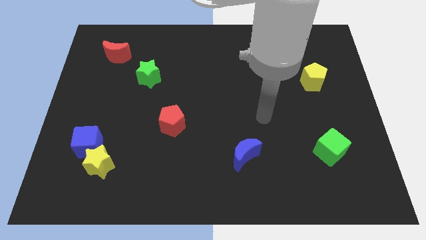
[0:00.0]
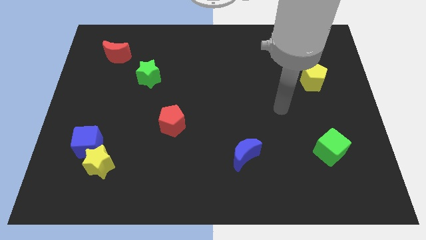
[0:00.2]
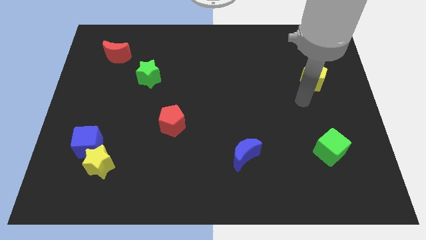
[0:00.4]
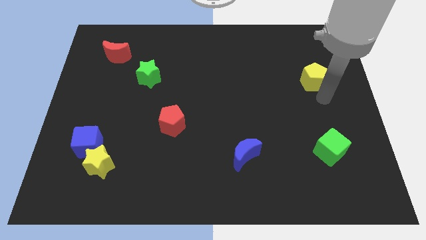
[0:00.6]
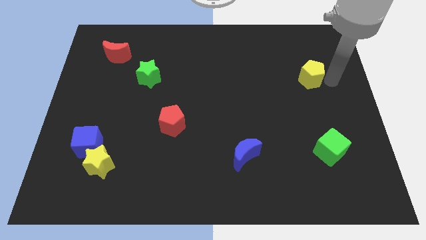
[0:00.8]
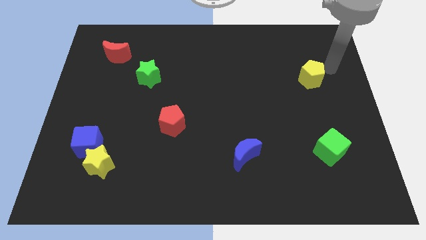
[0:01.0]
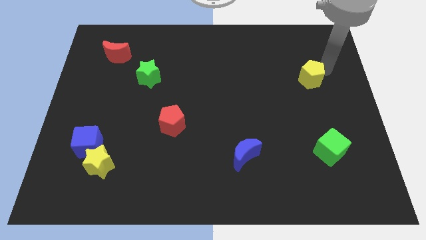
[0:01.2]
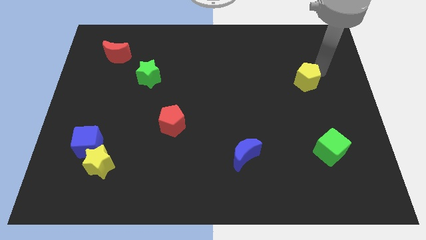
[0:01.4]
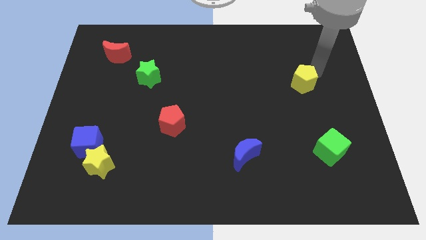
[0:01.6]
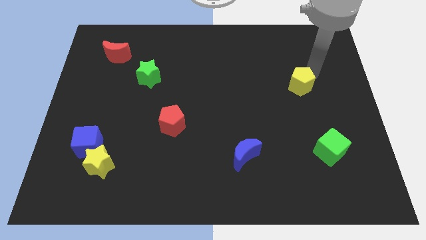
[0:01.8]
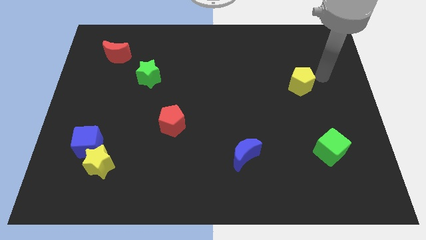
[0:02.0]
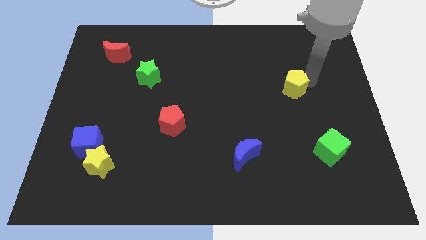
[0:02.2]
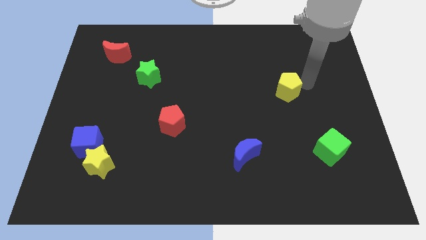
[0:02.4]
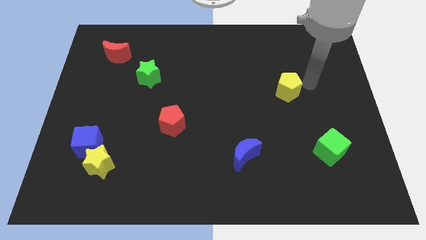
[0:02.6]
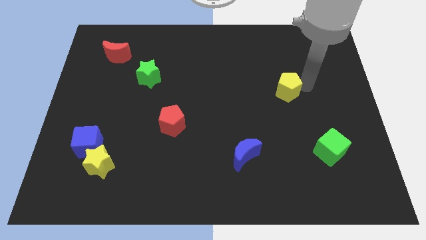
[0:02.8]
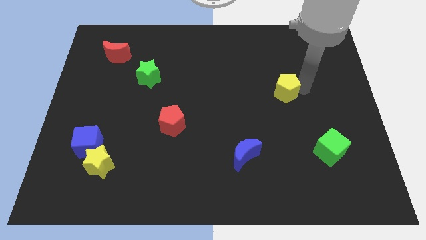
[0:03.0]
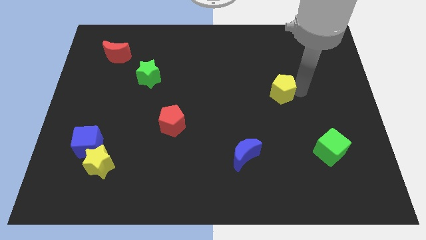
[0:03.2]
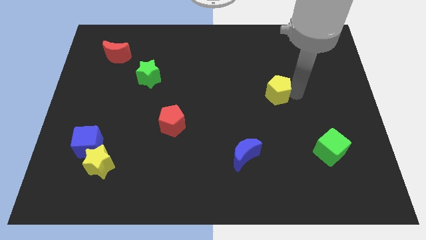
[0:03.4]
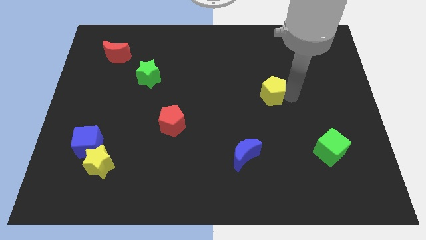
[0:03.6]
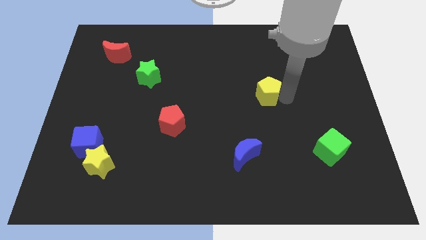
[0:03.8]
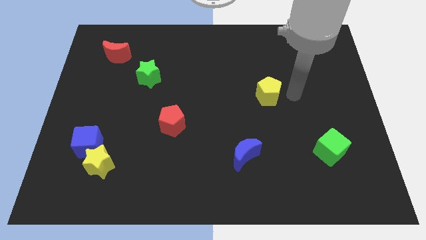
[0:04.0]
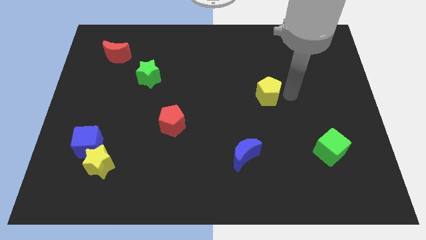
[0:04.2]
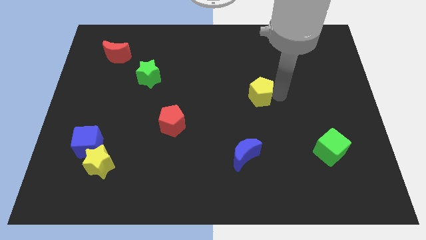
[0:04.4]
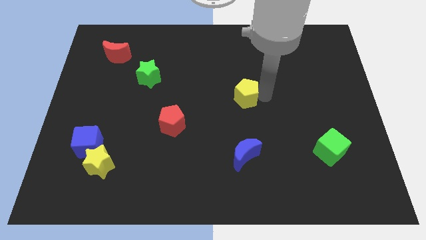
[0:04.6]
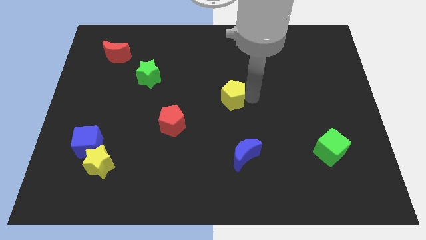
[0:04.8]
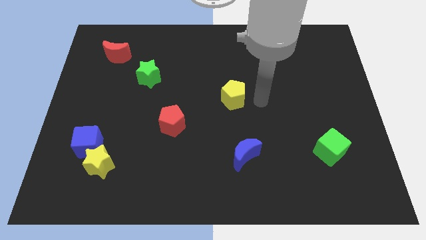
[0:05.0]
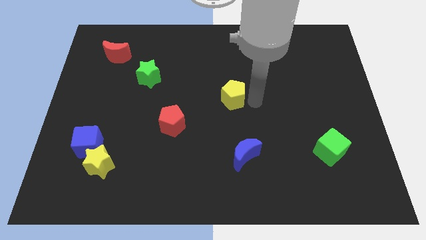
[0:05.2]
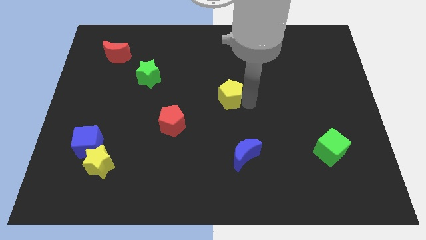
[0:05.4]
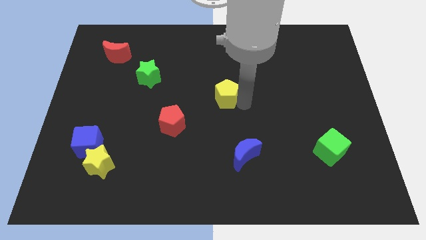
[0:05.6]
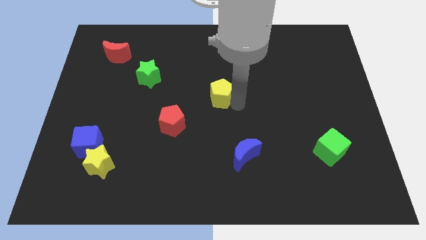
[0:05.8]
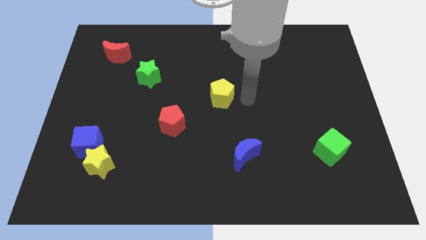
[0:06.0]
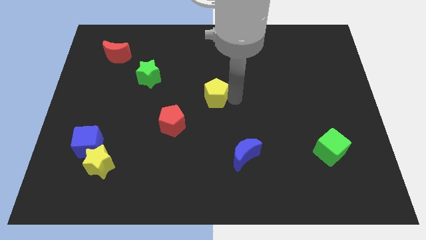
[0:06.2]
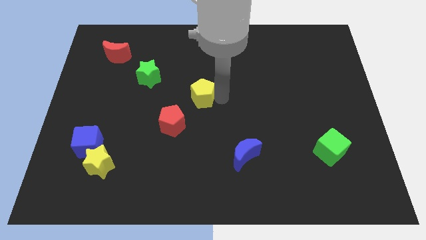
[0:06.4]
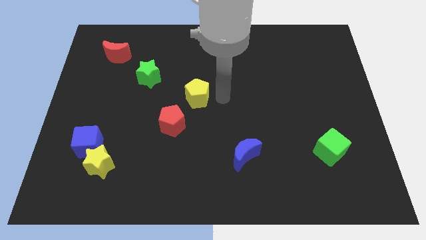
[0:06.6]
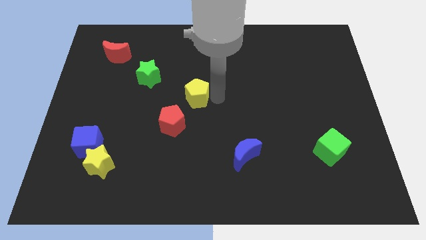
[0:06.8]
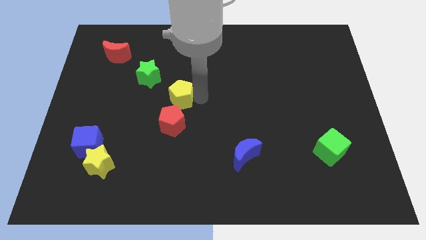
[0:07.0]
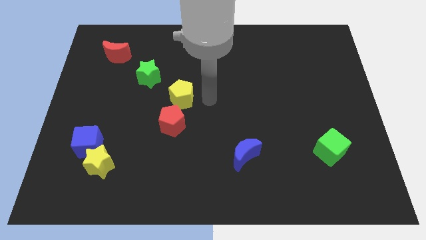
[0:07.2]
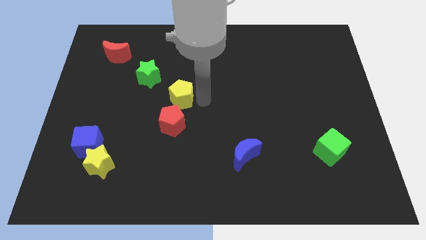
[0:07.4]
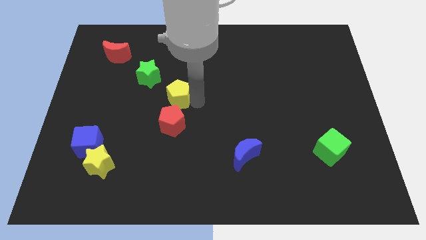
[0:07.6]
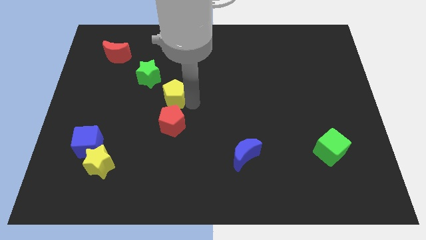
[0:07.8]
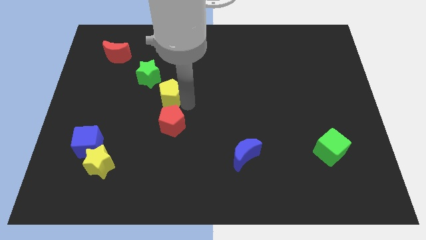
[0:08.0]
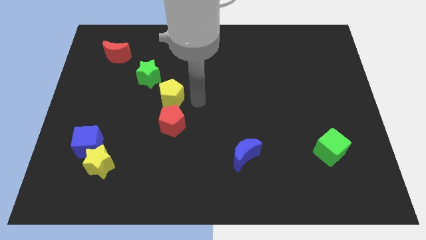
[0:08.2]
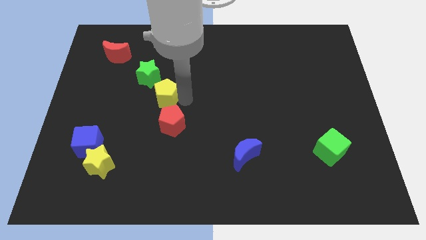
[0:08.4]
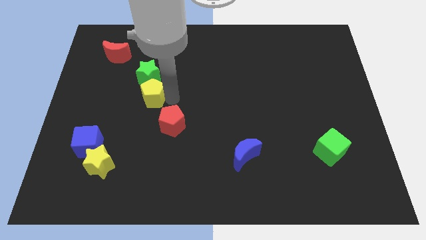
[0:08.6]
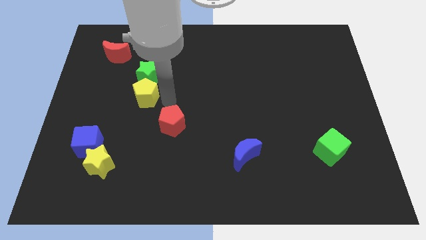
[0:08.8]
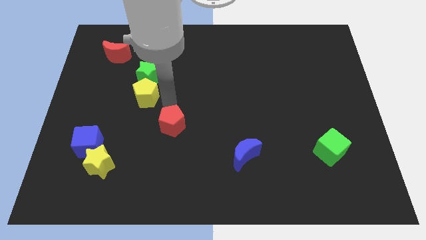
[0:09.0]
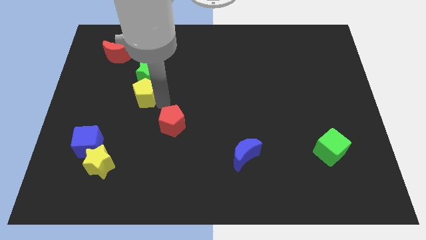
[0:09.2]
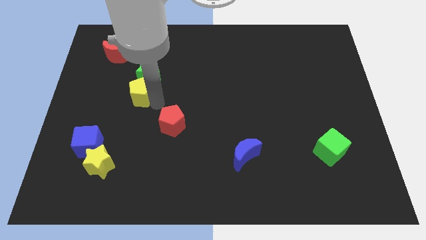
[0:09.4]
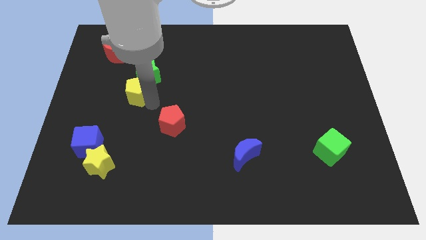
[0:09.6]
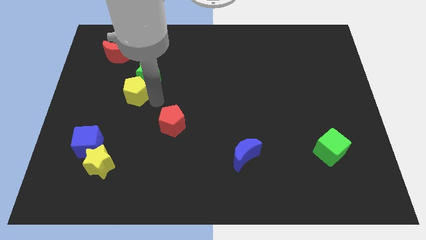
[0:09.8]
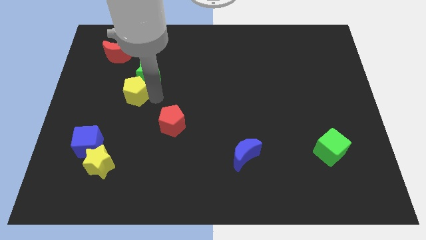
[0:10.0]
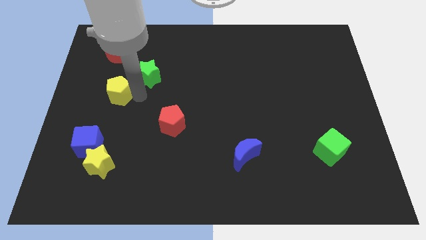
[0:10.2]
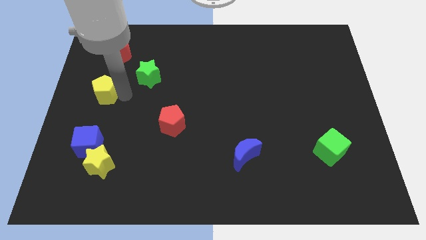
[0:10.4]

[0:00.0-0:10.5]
put the yellow pentagon to the left side of the board

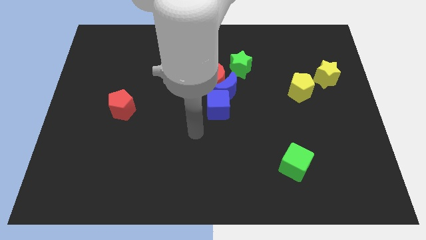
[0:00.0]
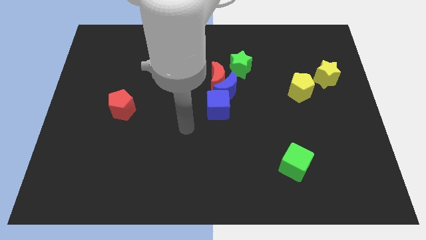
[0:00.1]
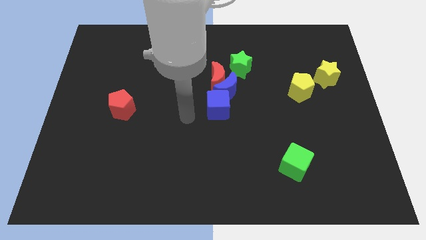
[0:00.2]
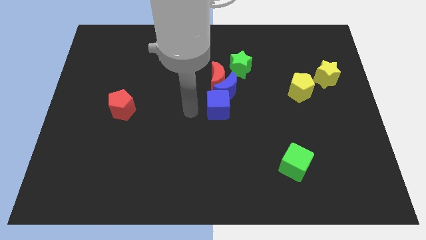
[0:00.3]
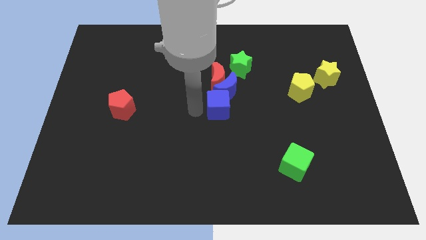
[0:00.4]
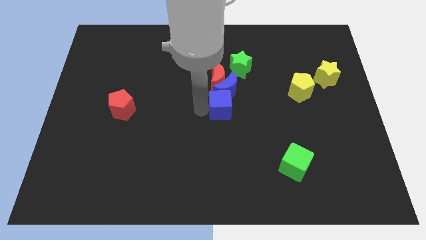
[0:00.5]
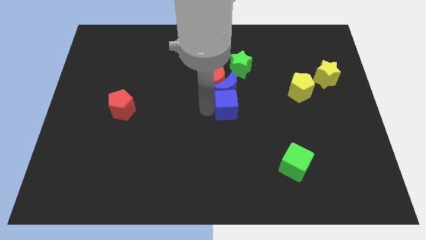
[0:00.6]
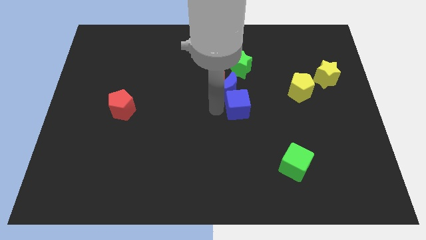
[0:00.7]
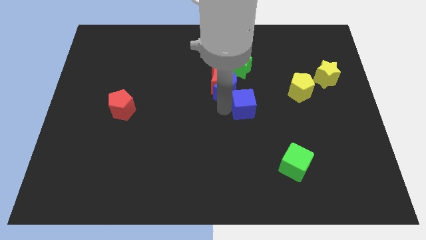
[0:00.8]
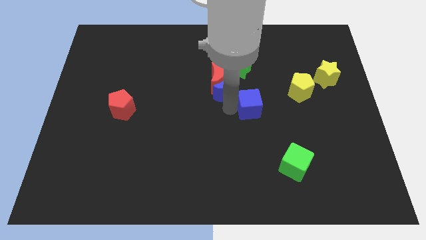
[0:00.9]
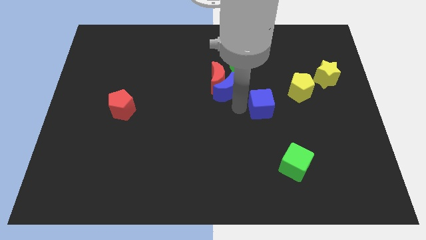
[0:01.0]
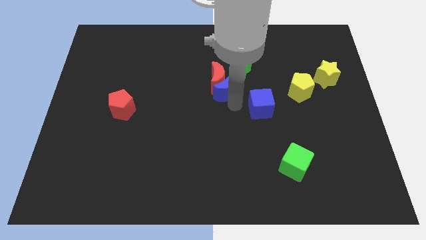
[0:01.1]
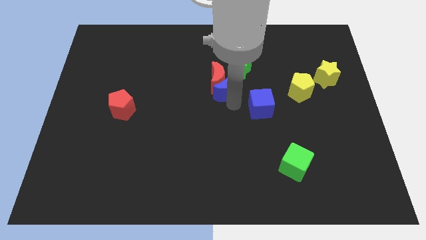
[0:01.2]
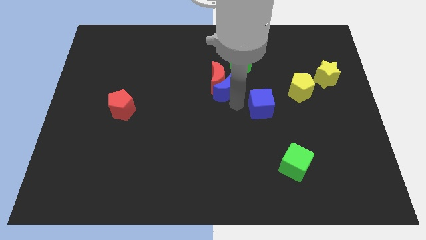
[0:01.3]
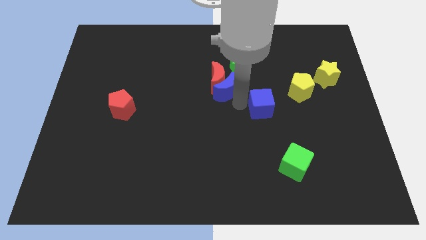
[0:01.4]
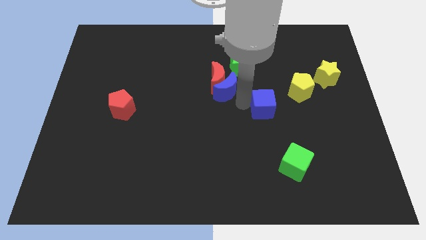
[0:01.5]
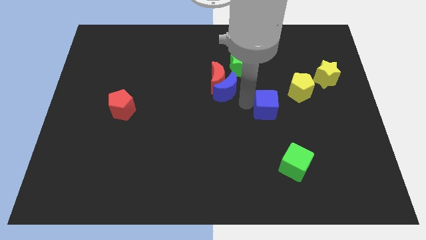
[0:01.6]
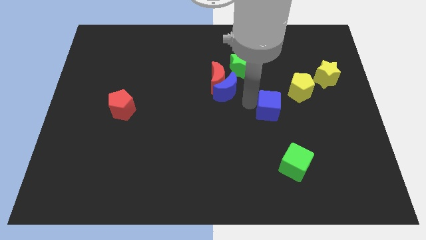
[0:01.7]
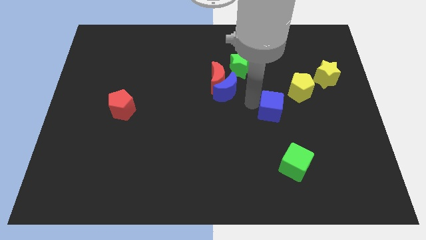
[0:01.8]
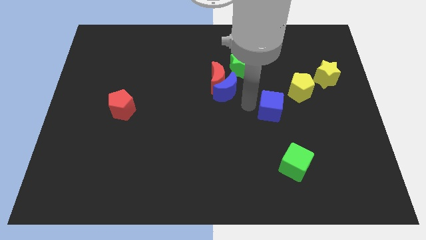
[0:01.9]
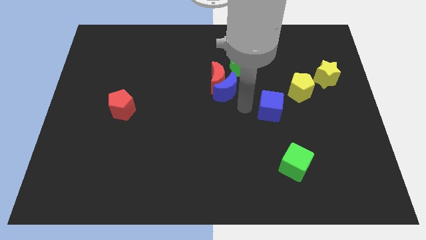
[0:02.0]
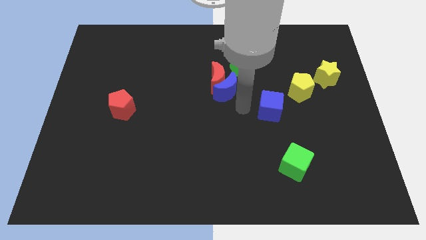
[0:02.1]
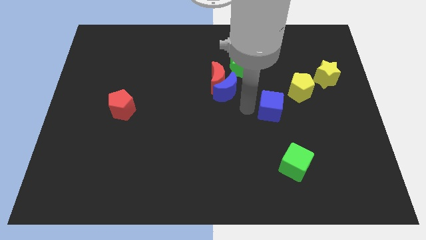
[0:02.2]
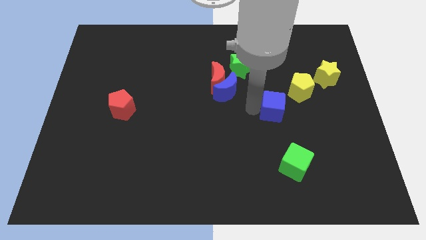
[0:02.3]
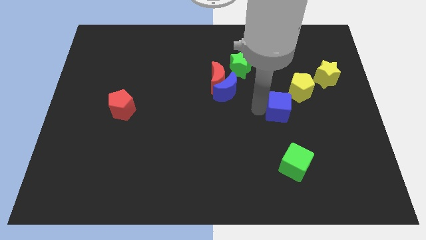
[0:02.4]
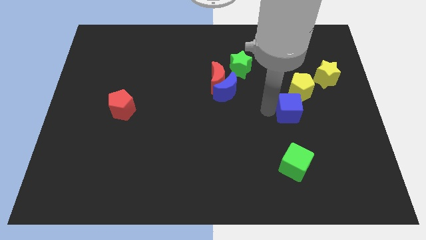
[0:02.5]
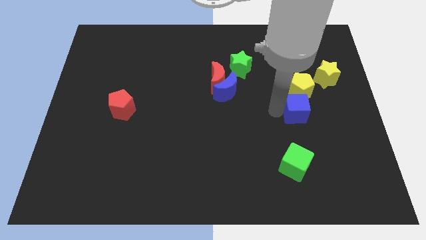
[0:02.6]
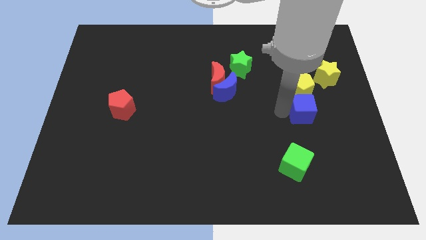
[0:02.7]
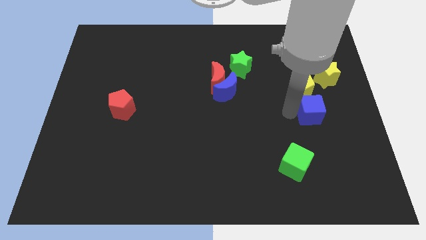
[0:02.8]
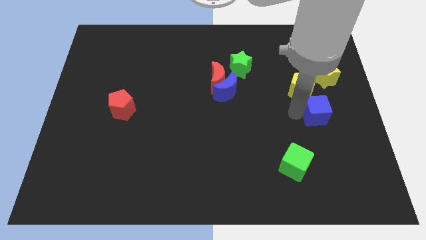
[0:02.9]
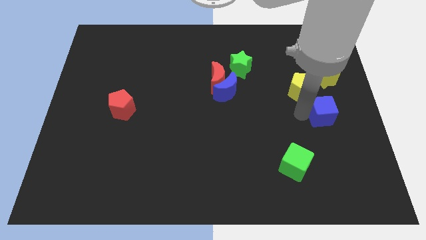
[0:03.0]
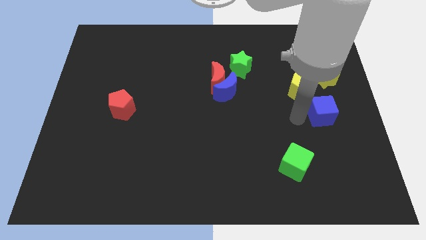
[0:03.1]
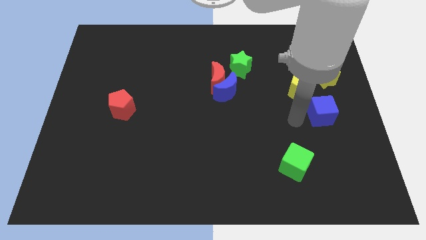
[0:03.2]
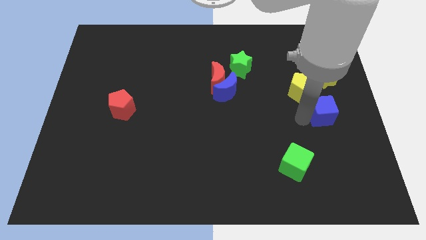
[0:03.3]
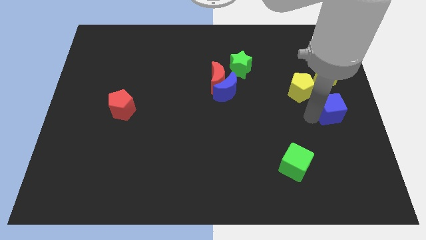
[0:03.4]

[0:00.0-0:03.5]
push the blue cube to the center right
